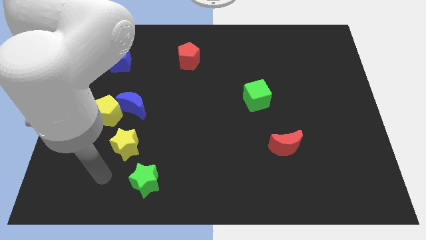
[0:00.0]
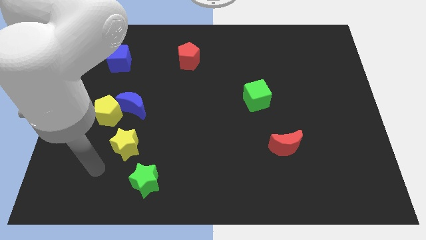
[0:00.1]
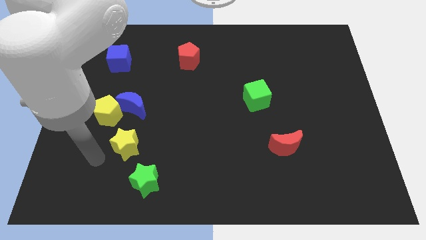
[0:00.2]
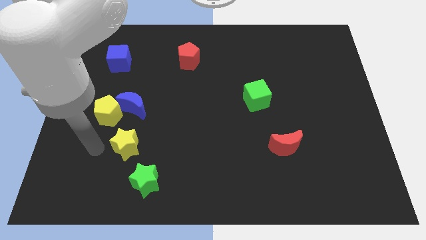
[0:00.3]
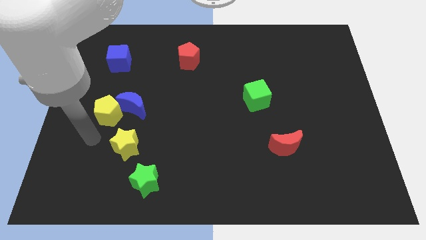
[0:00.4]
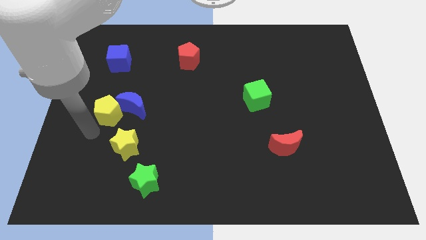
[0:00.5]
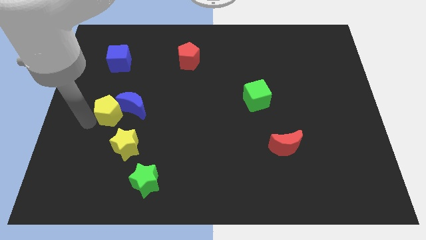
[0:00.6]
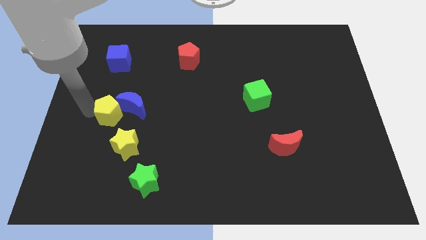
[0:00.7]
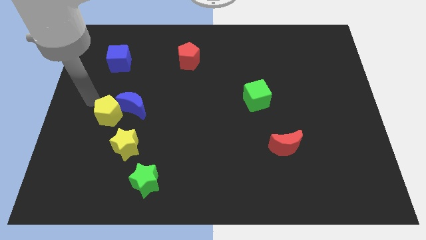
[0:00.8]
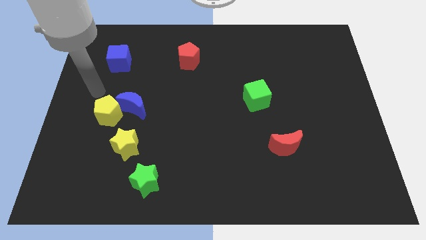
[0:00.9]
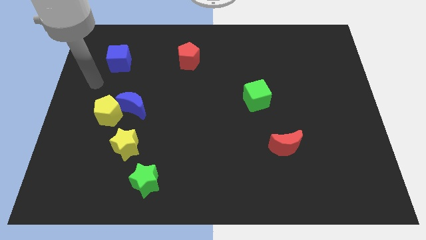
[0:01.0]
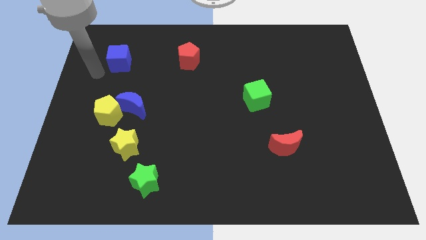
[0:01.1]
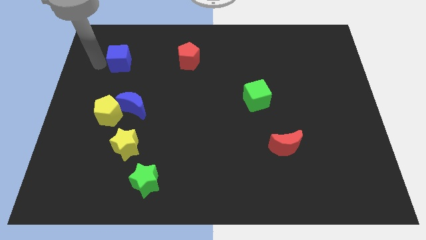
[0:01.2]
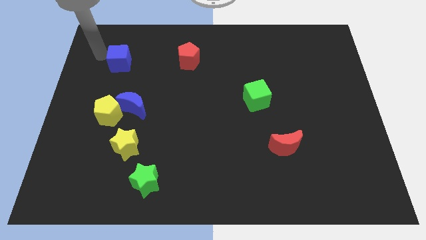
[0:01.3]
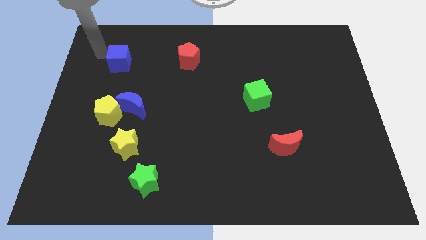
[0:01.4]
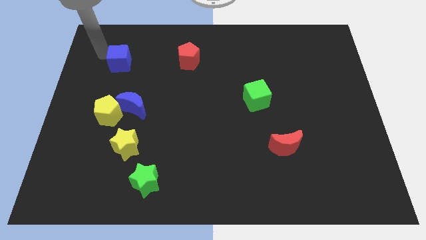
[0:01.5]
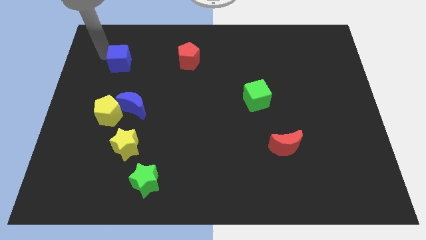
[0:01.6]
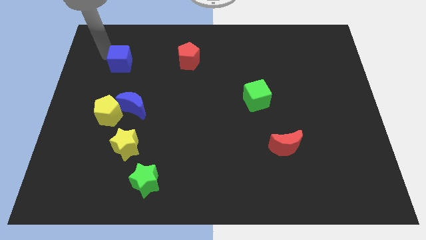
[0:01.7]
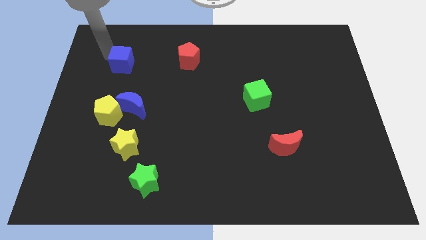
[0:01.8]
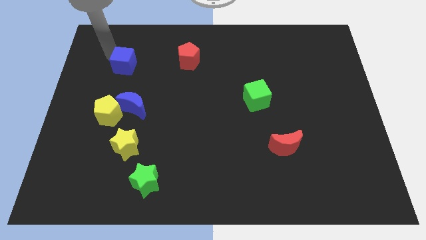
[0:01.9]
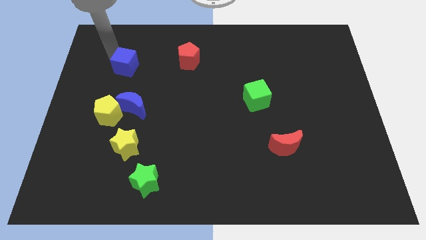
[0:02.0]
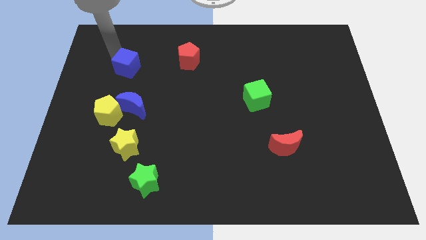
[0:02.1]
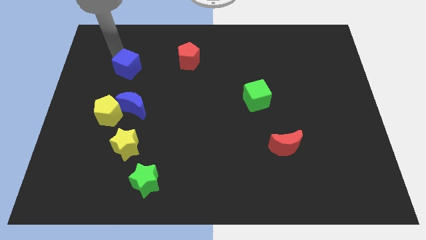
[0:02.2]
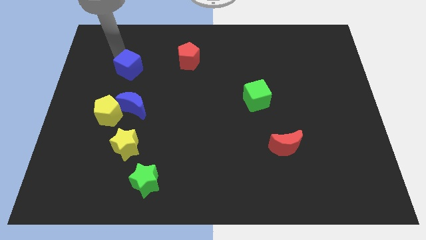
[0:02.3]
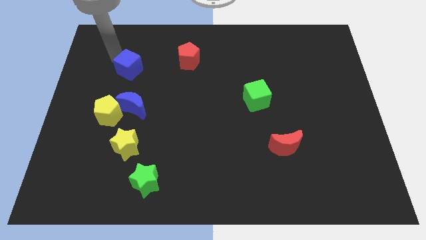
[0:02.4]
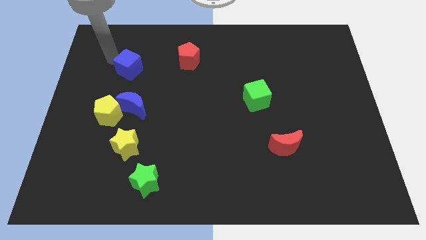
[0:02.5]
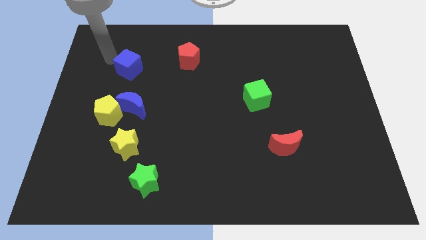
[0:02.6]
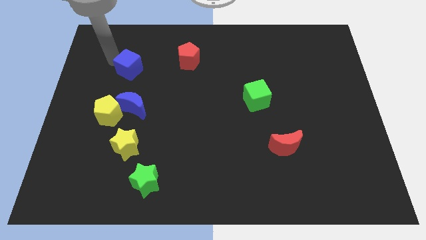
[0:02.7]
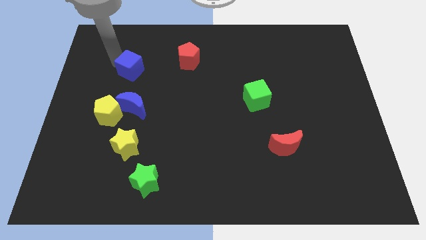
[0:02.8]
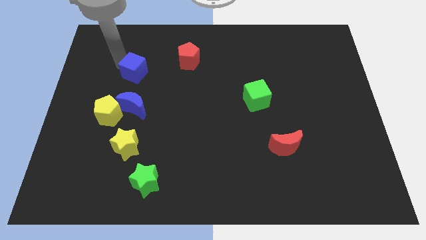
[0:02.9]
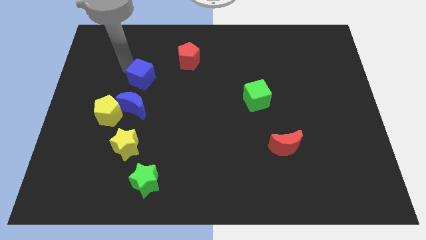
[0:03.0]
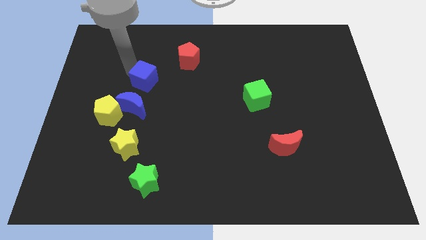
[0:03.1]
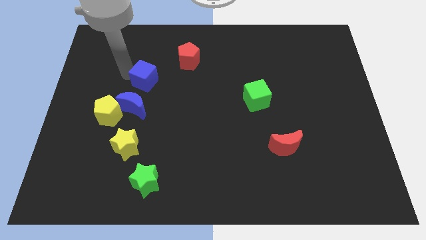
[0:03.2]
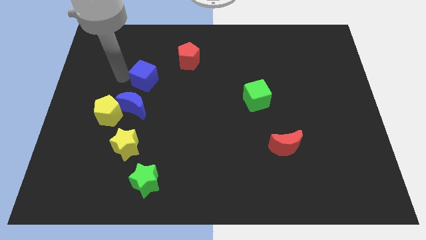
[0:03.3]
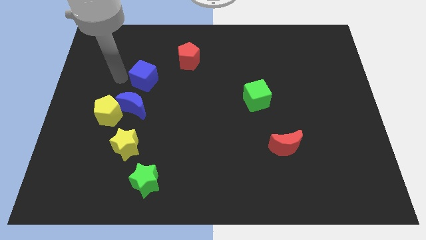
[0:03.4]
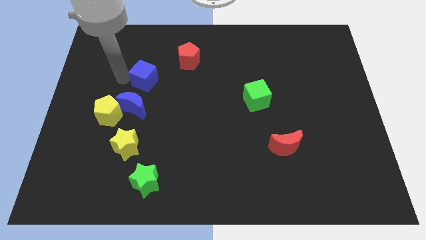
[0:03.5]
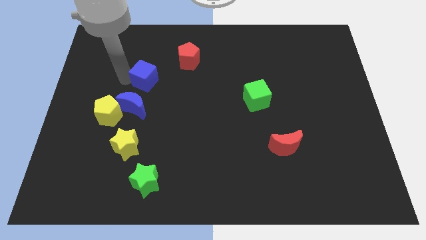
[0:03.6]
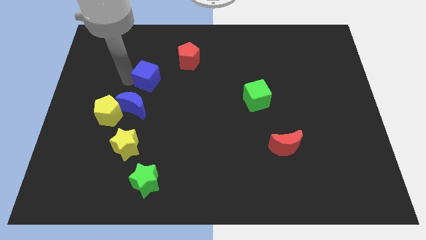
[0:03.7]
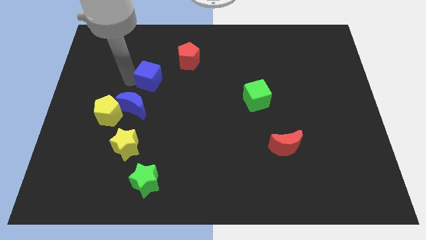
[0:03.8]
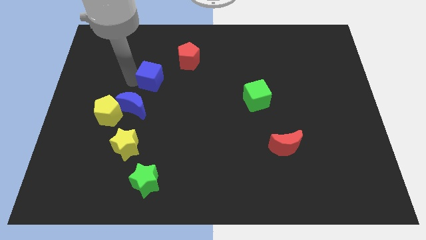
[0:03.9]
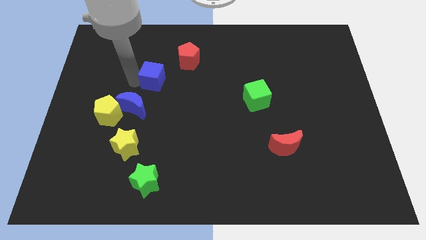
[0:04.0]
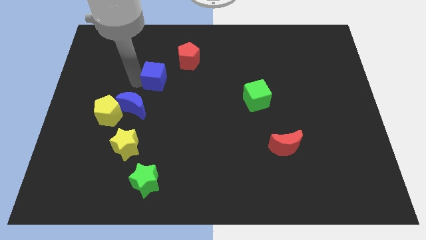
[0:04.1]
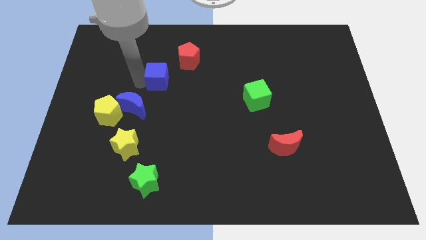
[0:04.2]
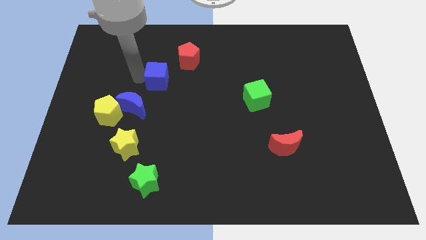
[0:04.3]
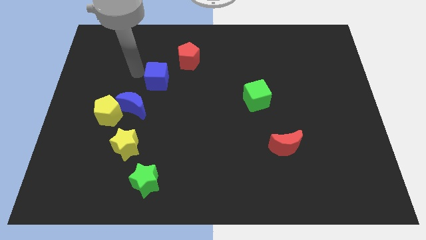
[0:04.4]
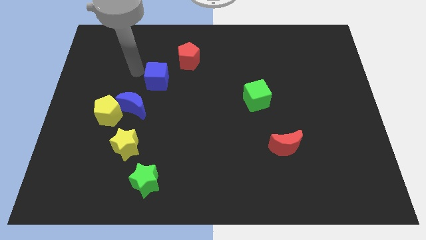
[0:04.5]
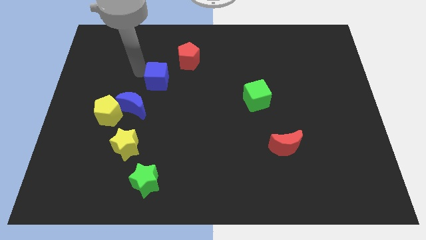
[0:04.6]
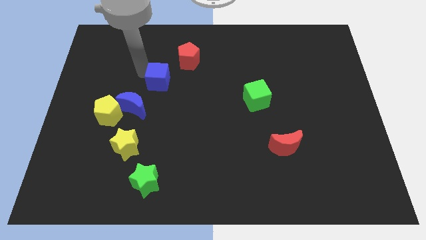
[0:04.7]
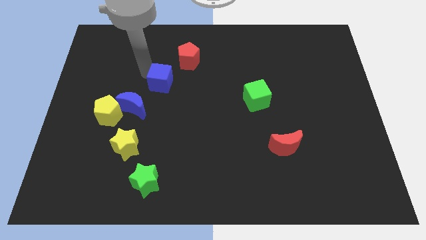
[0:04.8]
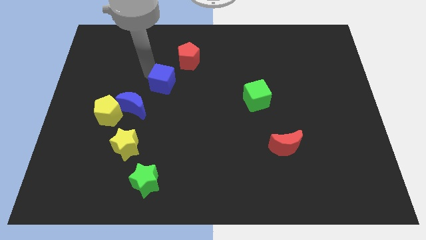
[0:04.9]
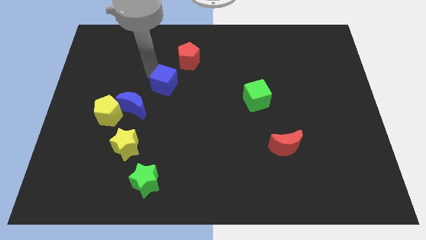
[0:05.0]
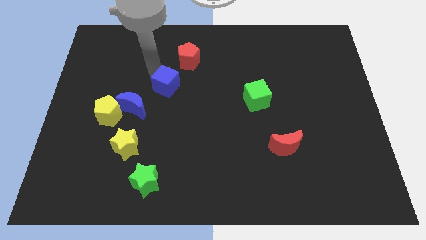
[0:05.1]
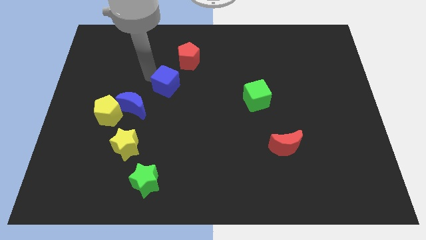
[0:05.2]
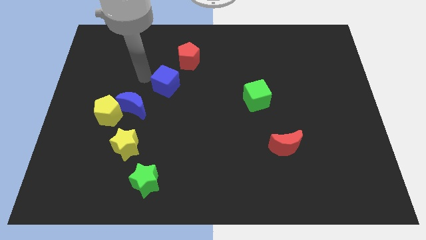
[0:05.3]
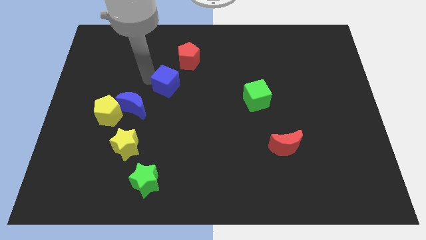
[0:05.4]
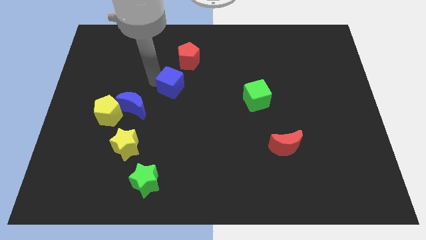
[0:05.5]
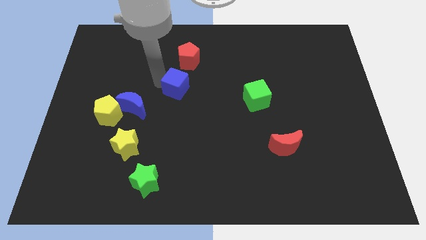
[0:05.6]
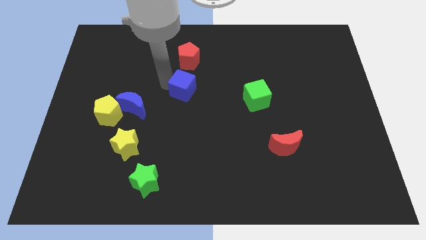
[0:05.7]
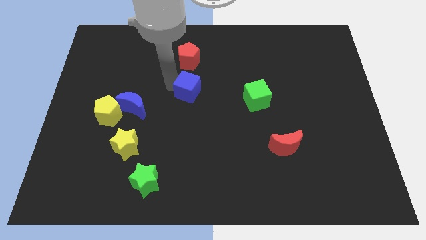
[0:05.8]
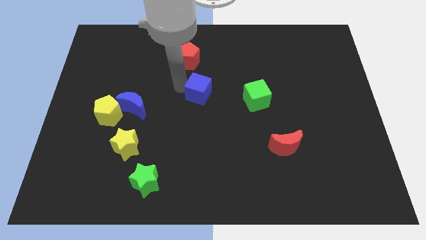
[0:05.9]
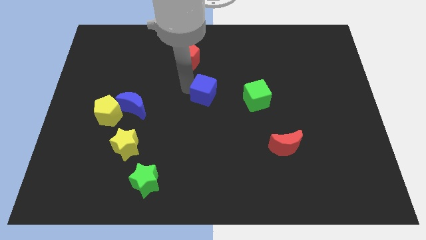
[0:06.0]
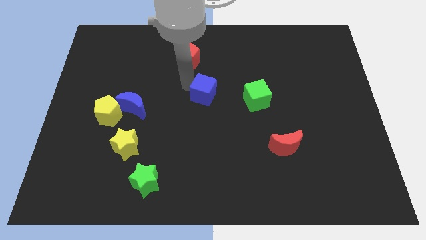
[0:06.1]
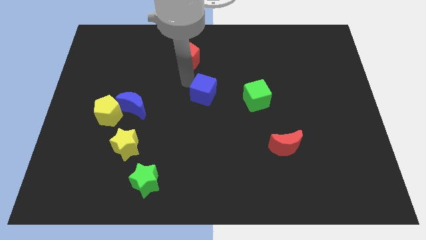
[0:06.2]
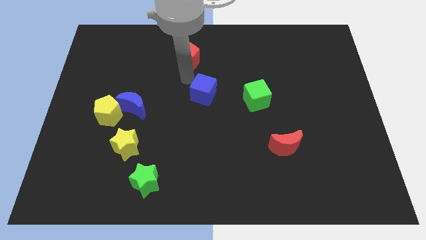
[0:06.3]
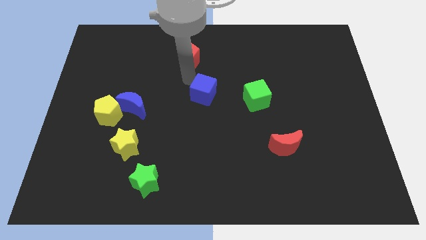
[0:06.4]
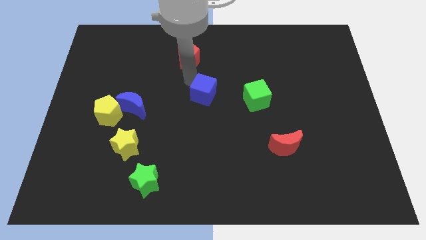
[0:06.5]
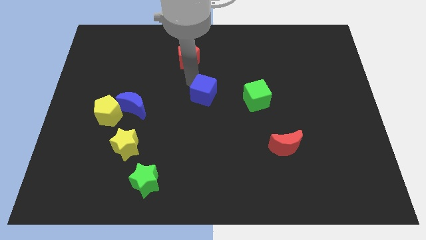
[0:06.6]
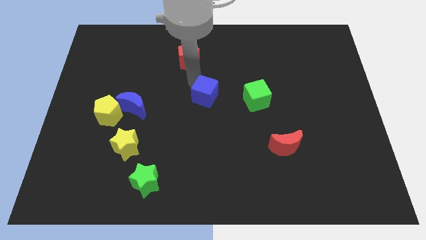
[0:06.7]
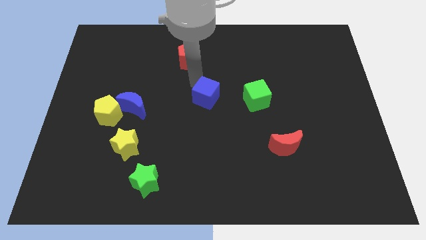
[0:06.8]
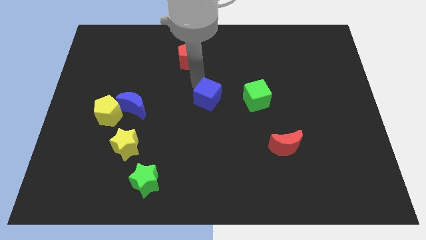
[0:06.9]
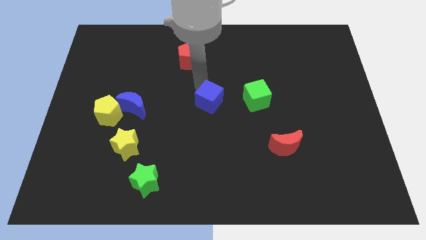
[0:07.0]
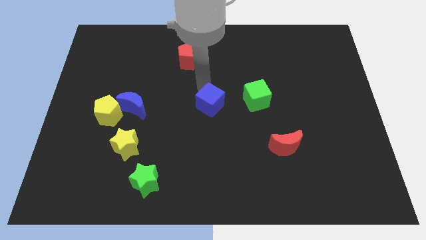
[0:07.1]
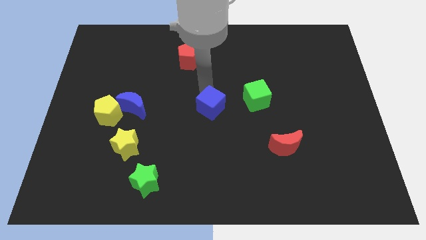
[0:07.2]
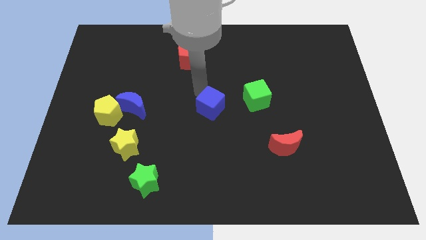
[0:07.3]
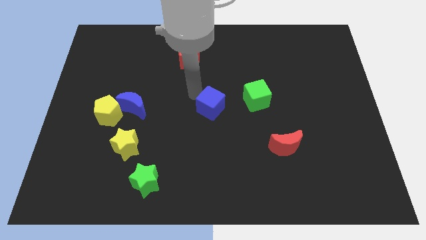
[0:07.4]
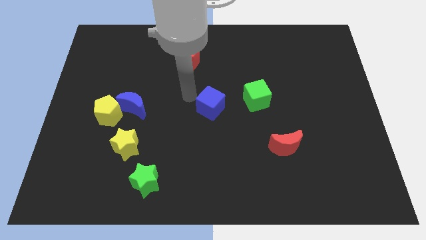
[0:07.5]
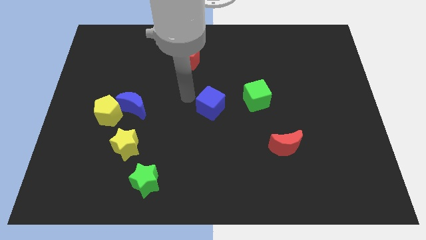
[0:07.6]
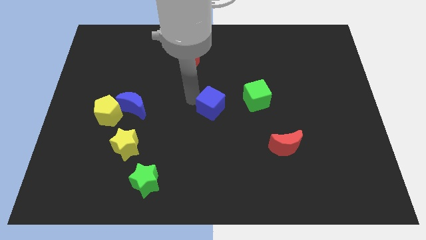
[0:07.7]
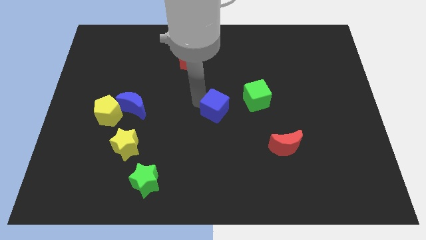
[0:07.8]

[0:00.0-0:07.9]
put the blue cube to the bottom left side of the green cube
